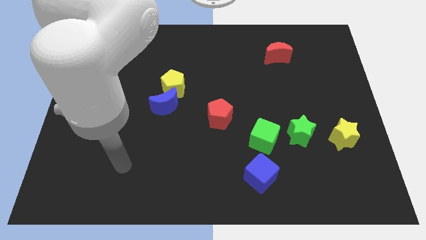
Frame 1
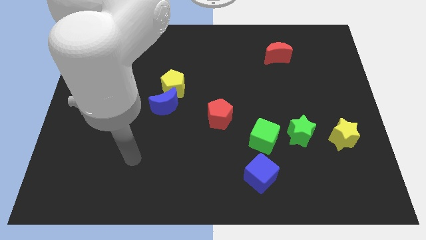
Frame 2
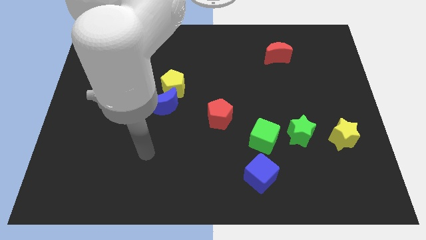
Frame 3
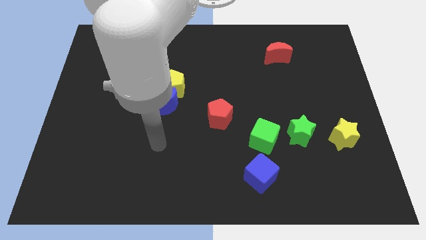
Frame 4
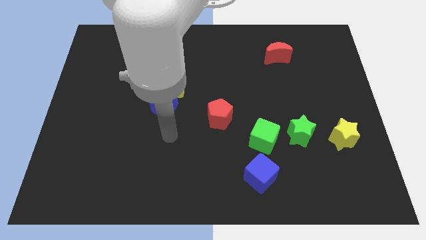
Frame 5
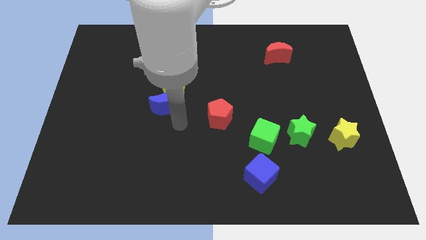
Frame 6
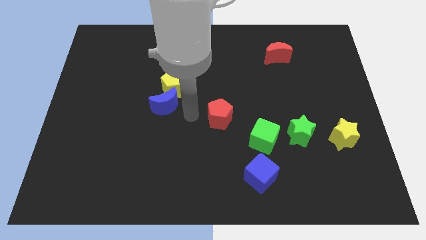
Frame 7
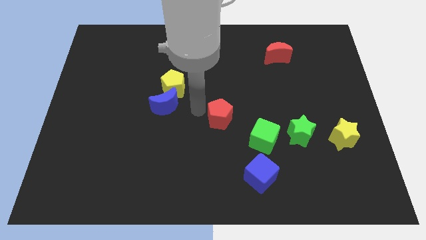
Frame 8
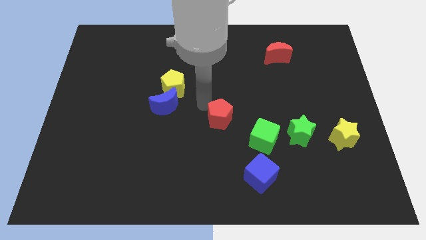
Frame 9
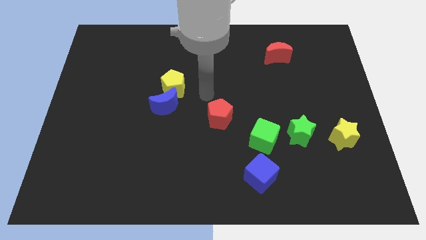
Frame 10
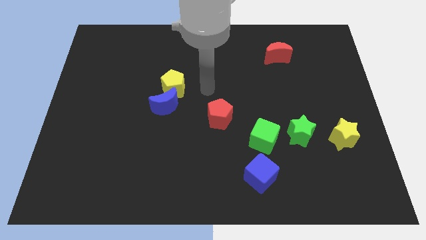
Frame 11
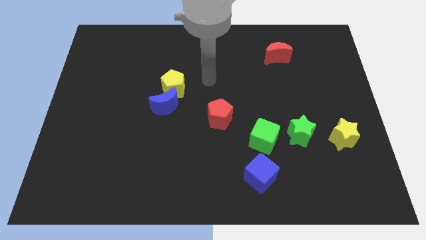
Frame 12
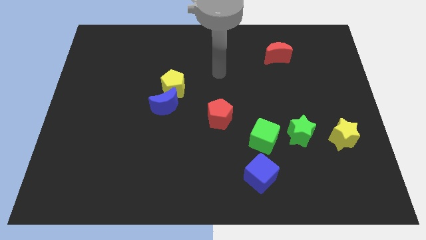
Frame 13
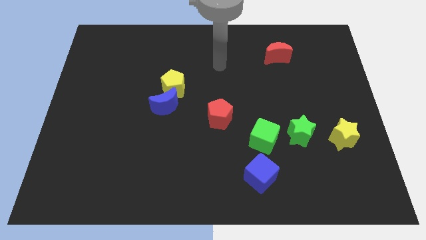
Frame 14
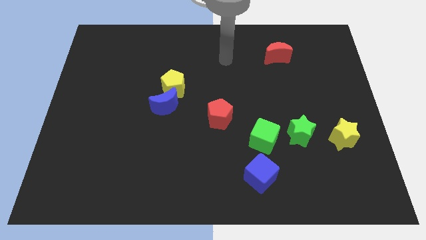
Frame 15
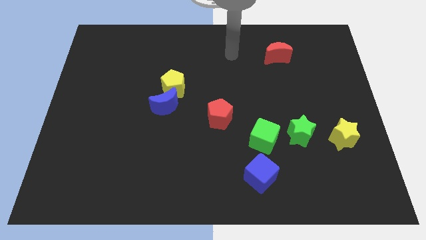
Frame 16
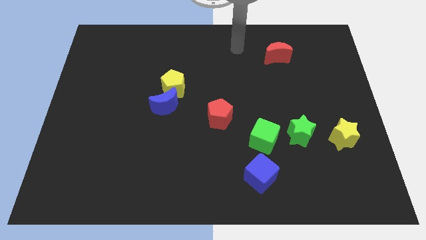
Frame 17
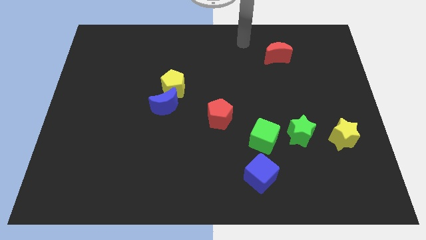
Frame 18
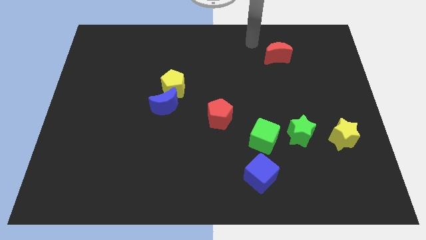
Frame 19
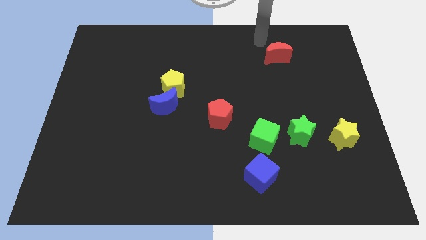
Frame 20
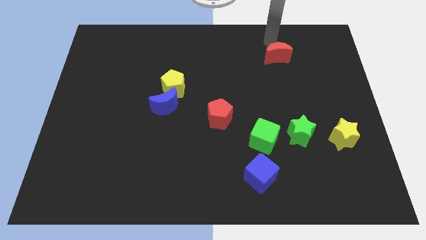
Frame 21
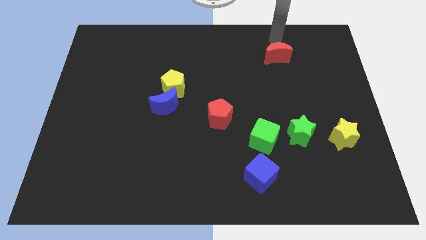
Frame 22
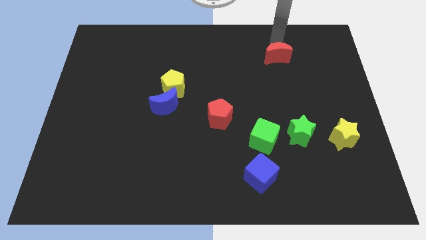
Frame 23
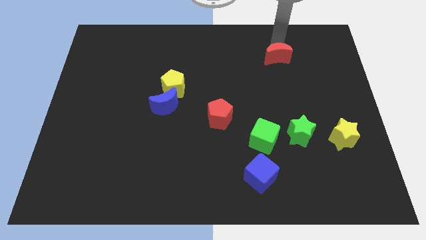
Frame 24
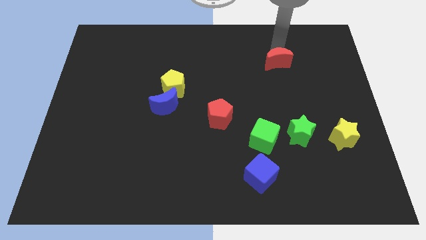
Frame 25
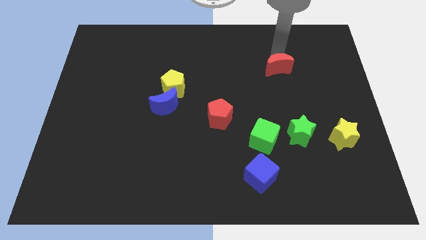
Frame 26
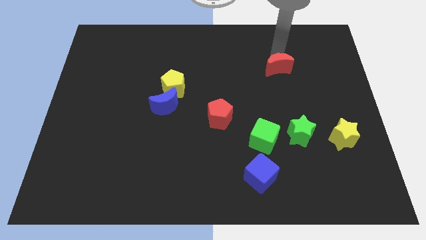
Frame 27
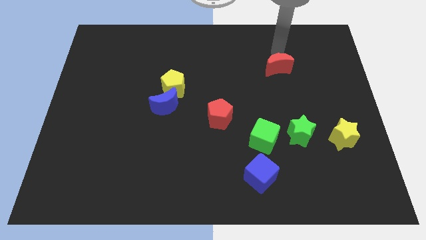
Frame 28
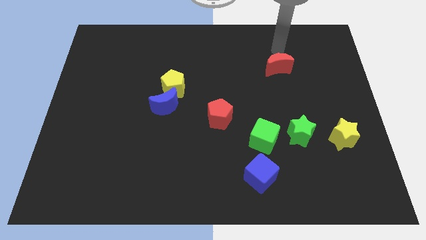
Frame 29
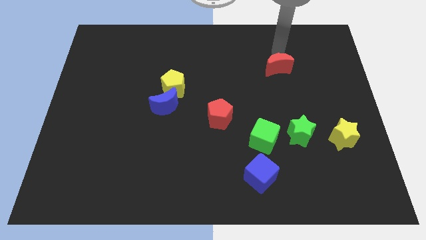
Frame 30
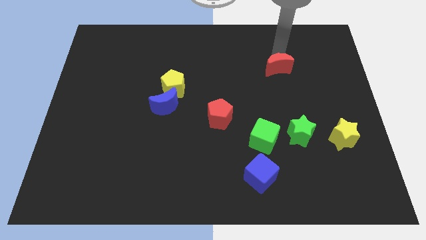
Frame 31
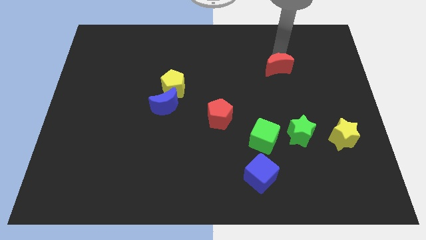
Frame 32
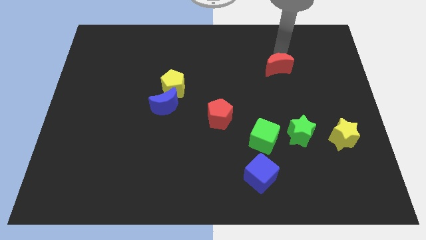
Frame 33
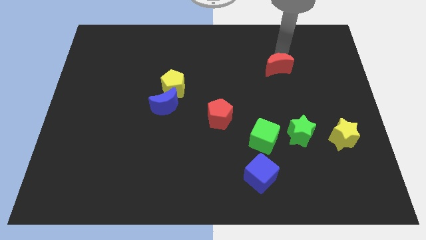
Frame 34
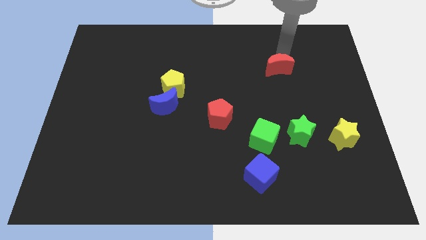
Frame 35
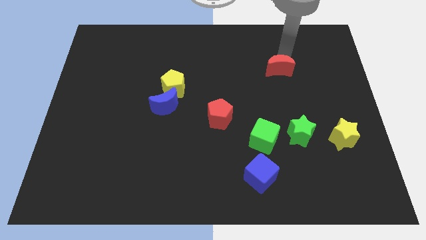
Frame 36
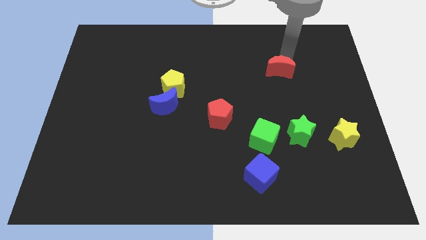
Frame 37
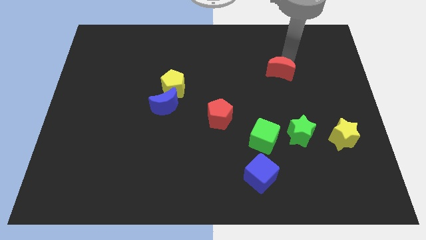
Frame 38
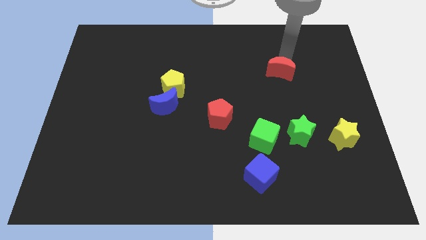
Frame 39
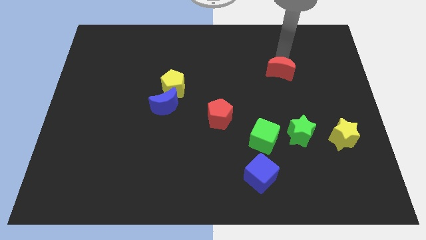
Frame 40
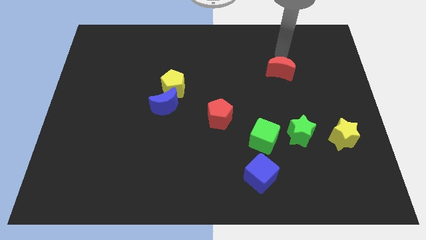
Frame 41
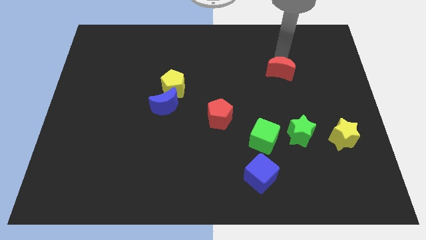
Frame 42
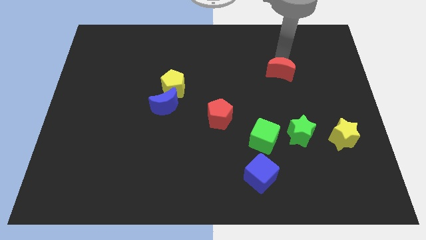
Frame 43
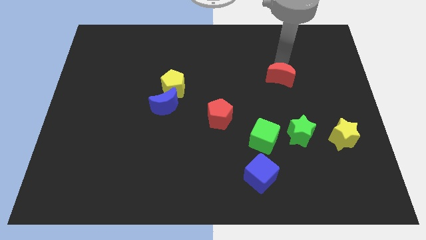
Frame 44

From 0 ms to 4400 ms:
slightly push the red moon down

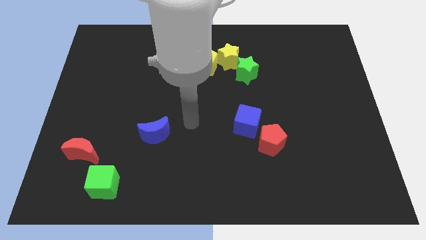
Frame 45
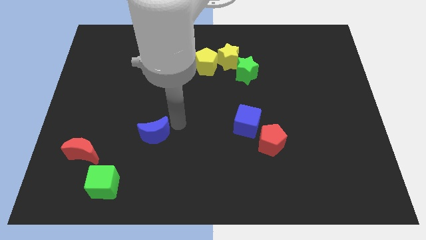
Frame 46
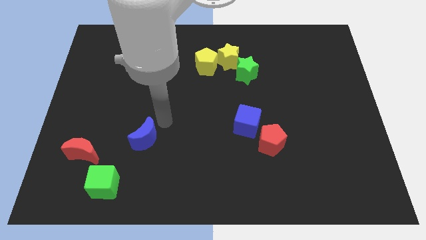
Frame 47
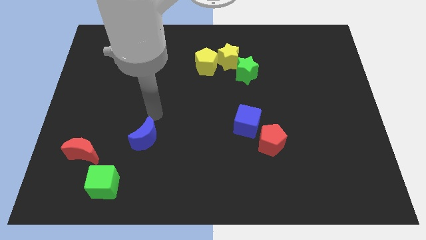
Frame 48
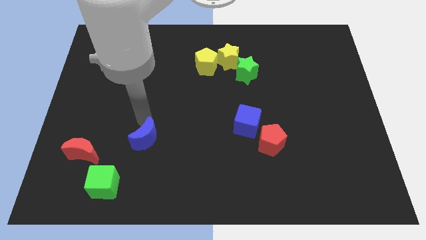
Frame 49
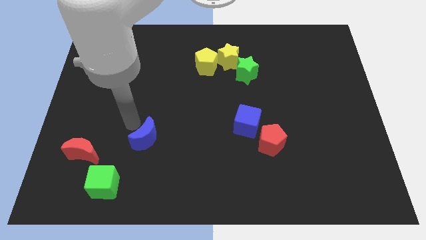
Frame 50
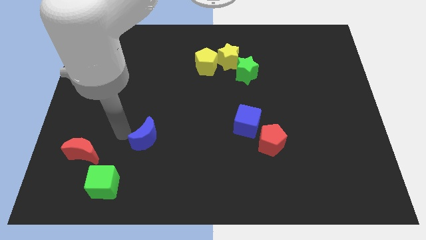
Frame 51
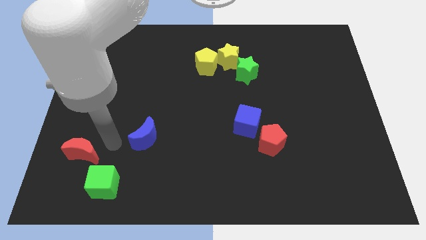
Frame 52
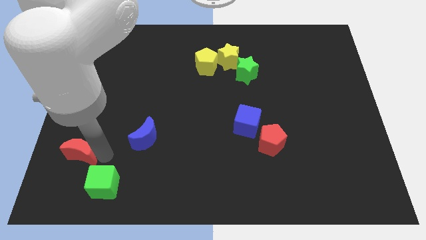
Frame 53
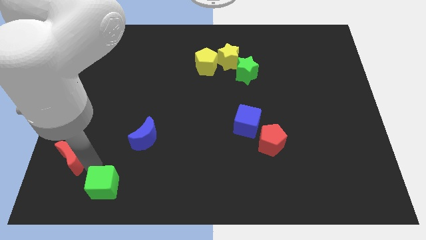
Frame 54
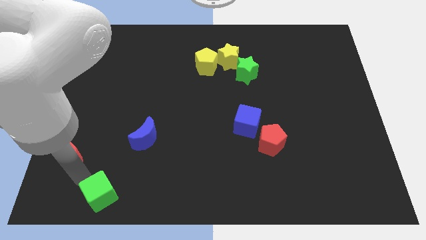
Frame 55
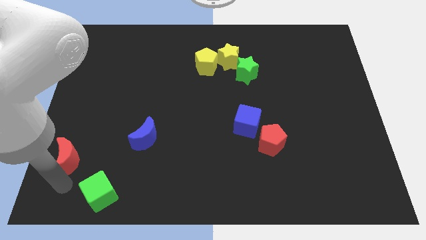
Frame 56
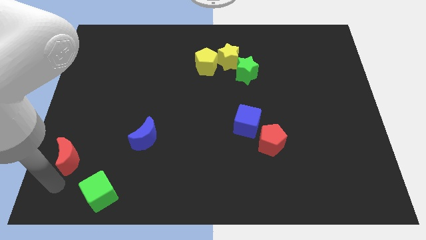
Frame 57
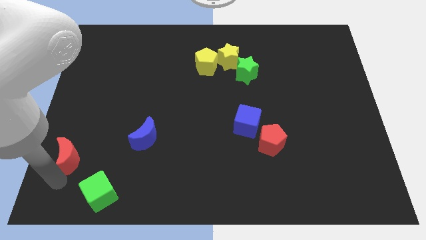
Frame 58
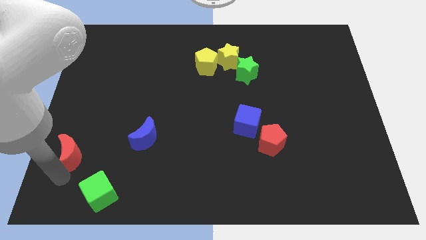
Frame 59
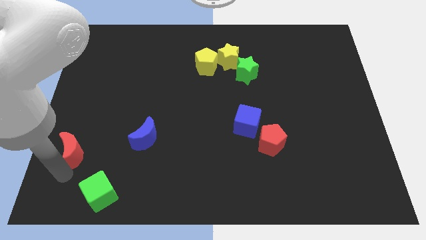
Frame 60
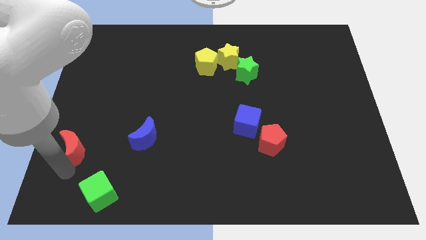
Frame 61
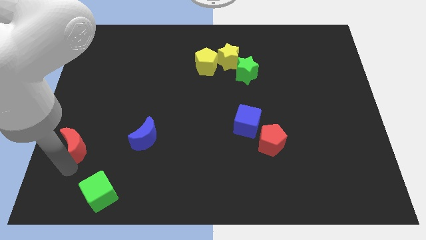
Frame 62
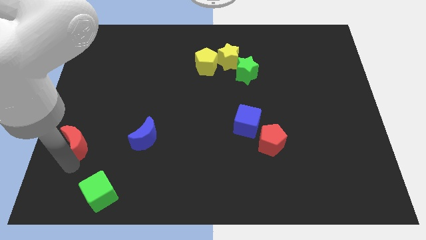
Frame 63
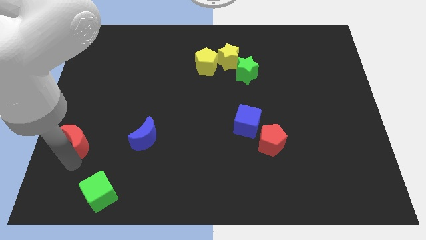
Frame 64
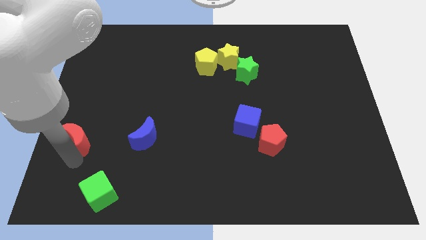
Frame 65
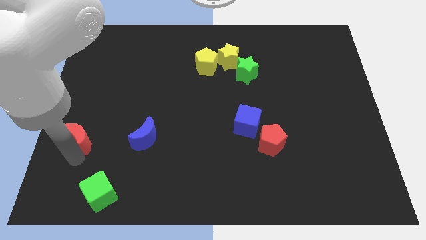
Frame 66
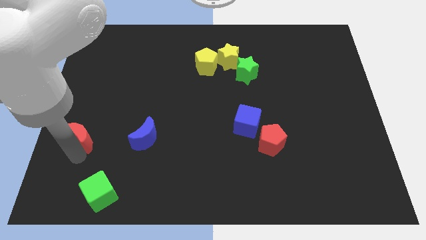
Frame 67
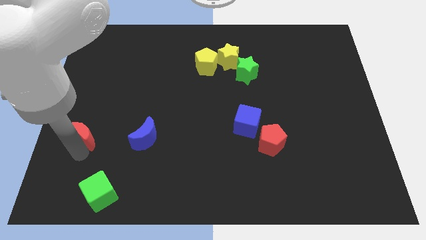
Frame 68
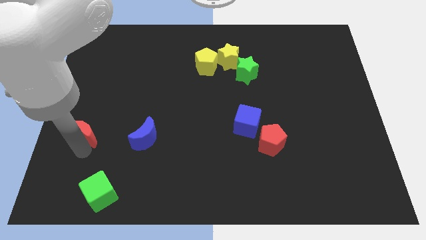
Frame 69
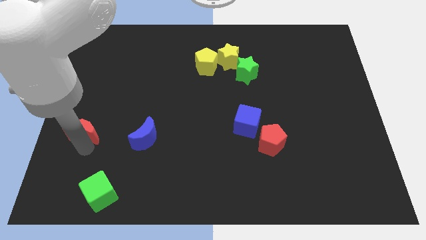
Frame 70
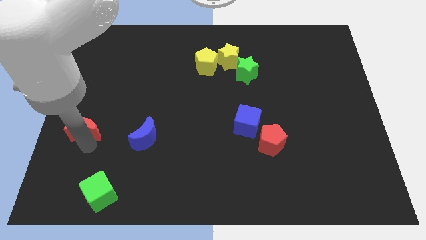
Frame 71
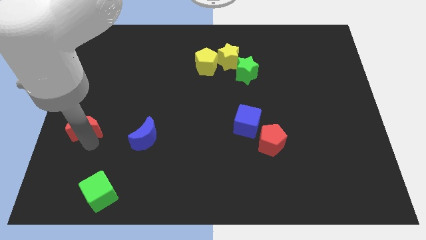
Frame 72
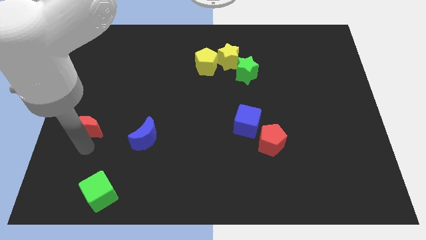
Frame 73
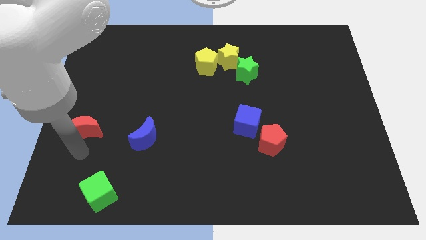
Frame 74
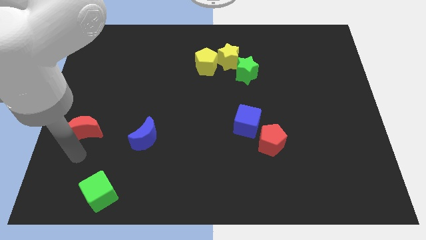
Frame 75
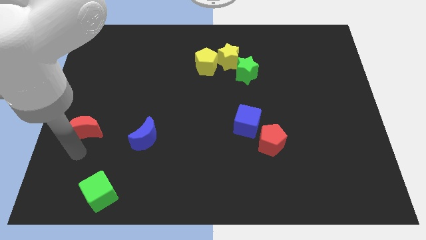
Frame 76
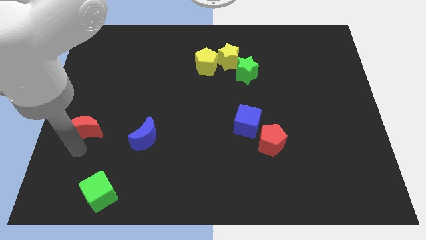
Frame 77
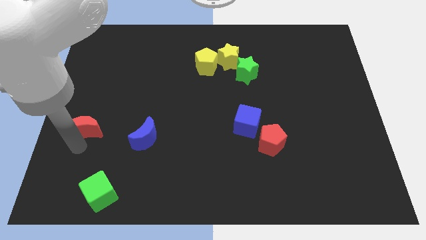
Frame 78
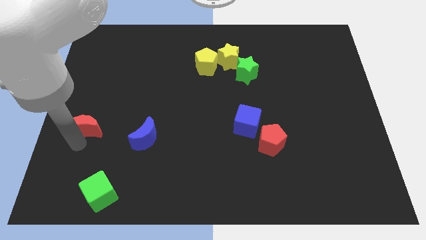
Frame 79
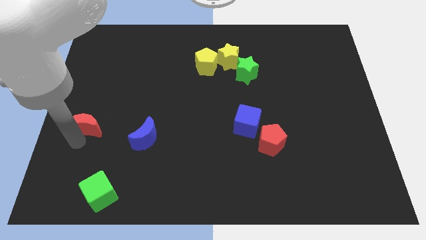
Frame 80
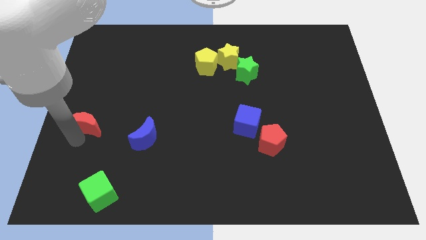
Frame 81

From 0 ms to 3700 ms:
slightly slide the red moon up
